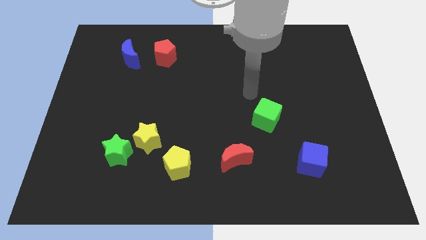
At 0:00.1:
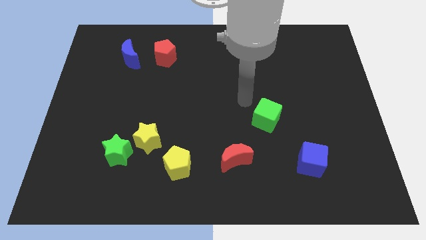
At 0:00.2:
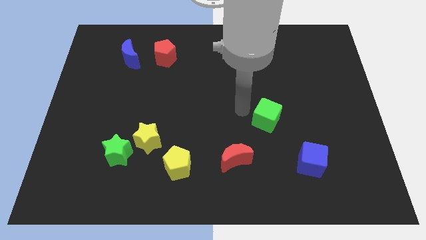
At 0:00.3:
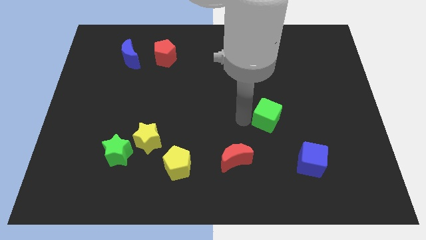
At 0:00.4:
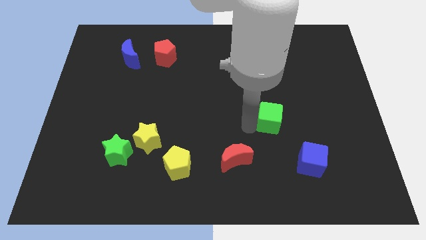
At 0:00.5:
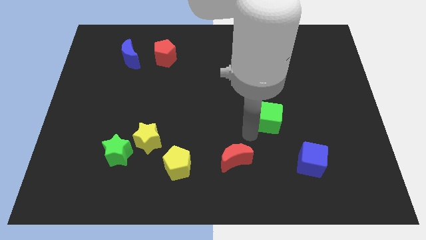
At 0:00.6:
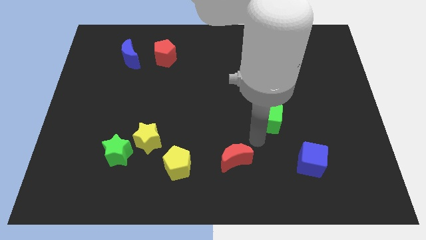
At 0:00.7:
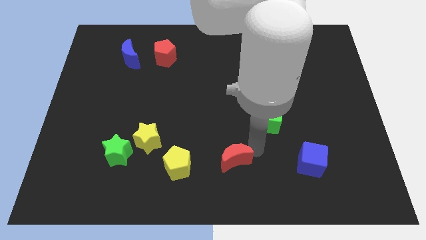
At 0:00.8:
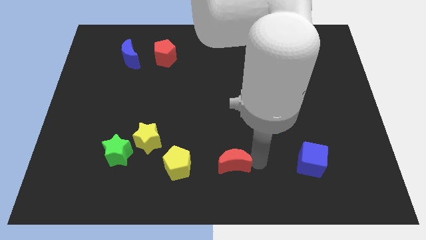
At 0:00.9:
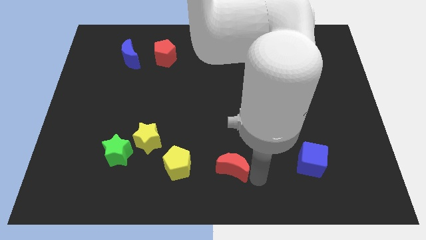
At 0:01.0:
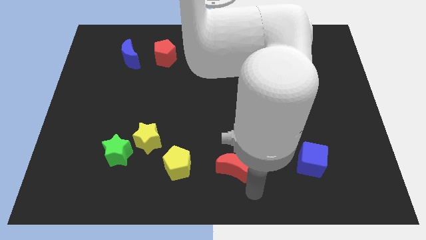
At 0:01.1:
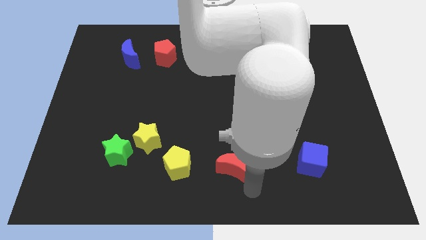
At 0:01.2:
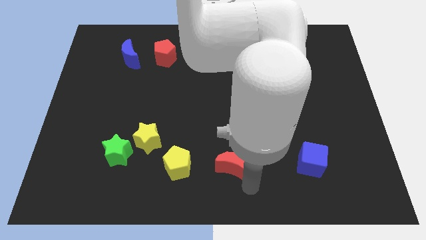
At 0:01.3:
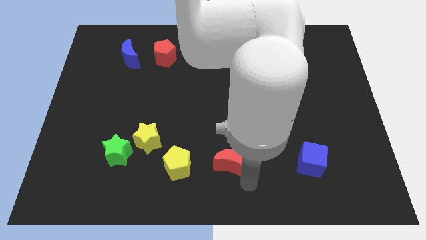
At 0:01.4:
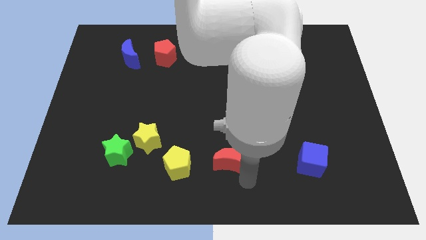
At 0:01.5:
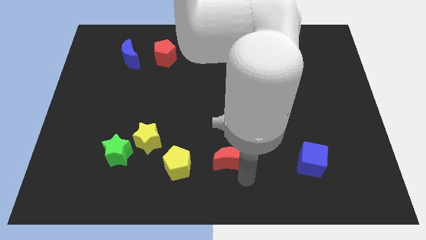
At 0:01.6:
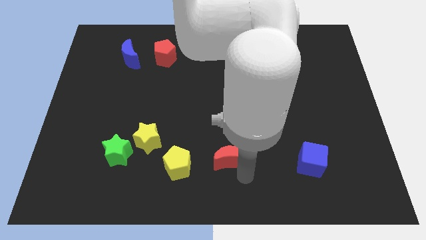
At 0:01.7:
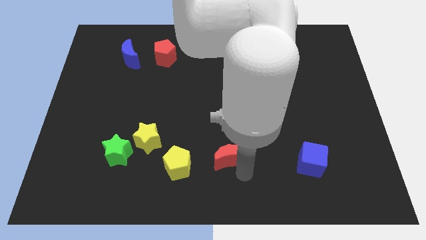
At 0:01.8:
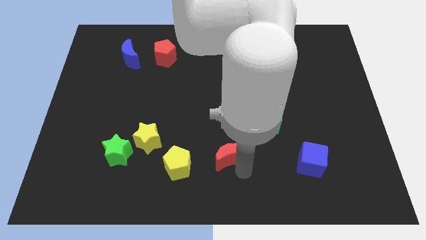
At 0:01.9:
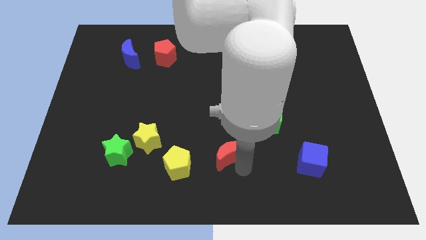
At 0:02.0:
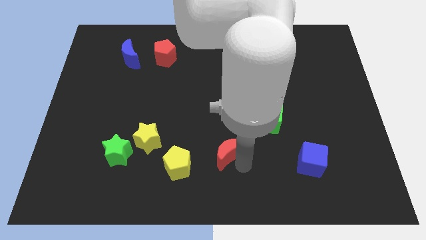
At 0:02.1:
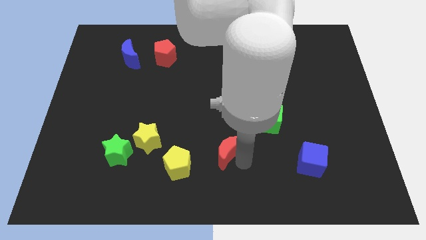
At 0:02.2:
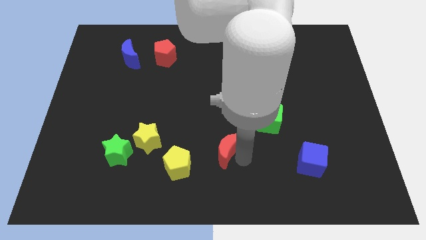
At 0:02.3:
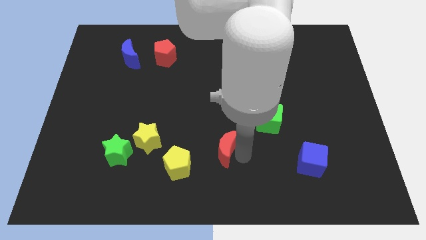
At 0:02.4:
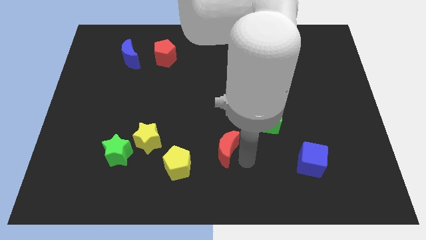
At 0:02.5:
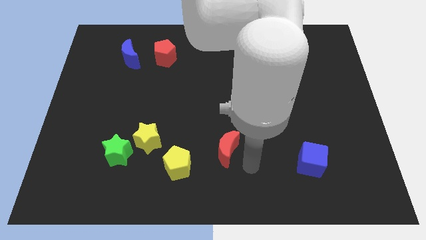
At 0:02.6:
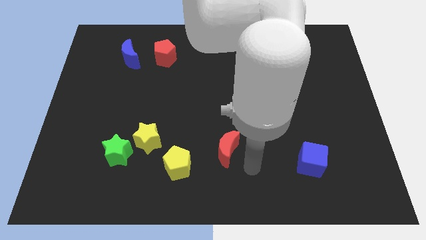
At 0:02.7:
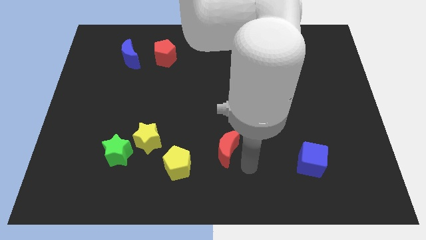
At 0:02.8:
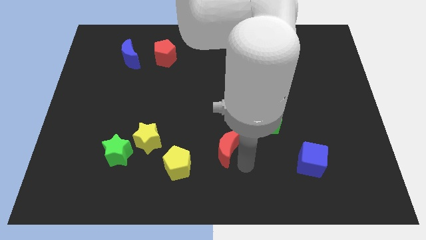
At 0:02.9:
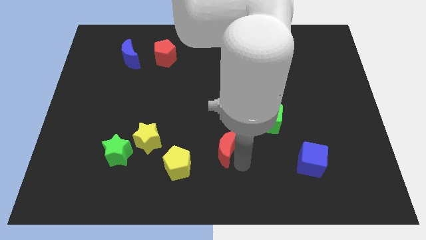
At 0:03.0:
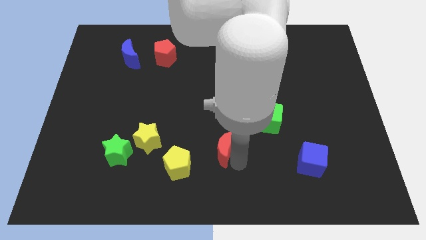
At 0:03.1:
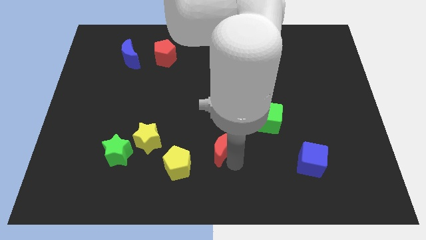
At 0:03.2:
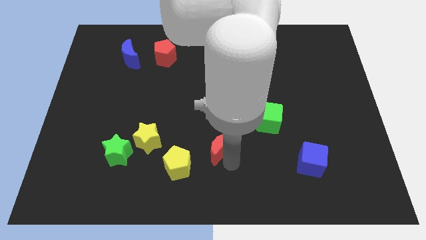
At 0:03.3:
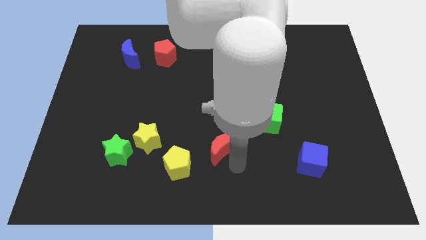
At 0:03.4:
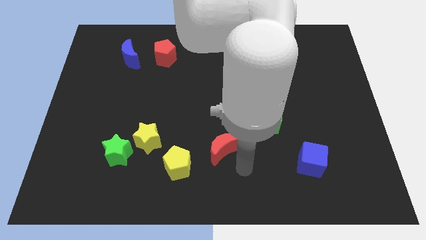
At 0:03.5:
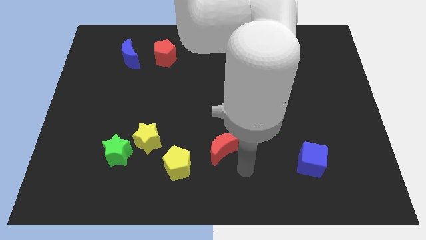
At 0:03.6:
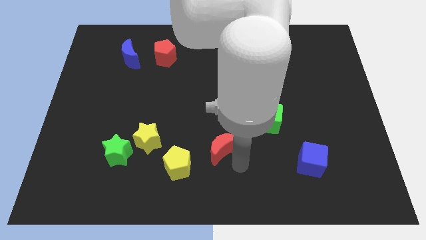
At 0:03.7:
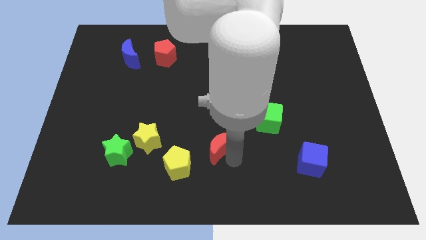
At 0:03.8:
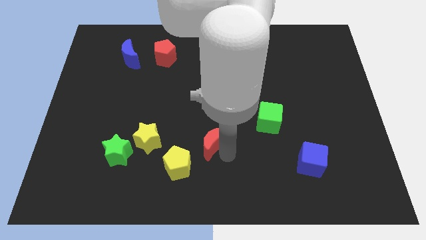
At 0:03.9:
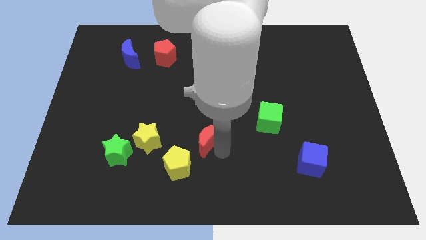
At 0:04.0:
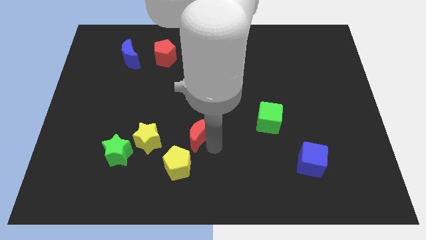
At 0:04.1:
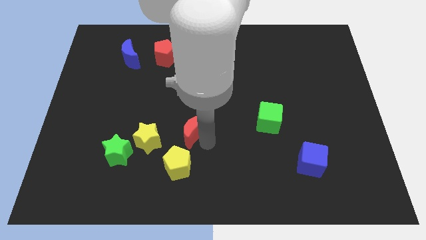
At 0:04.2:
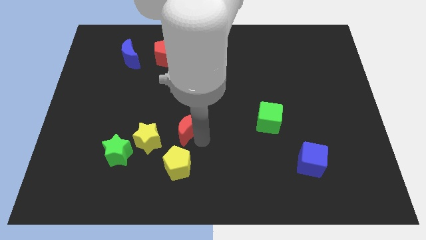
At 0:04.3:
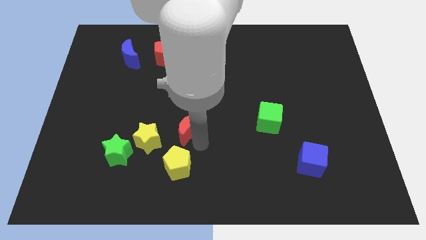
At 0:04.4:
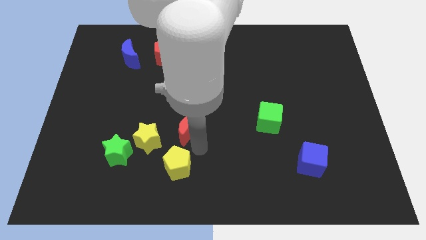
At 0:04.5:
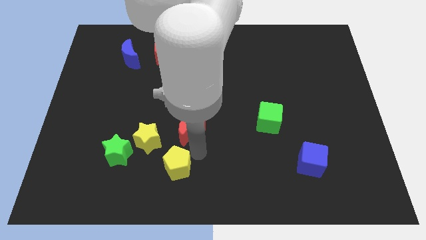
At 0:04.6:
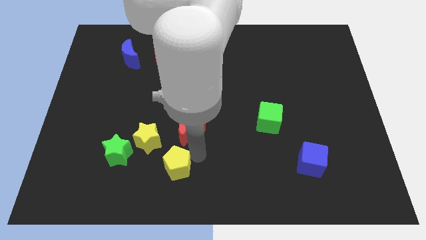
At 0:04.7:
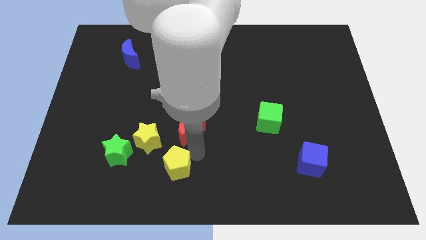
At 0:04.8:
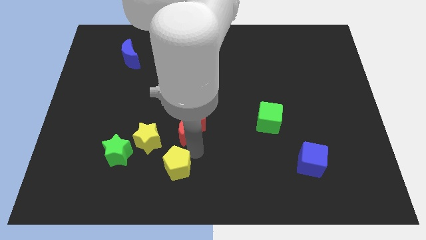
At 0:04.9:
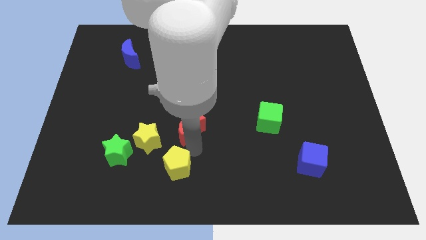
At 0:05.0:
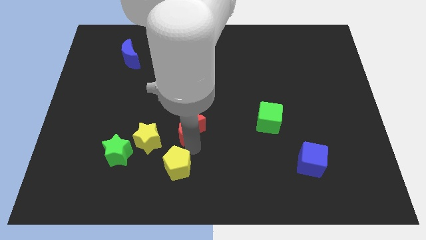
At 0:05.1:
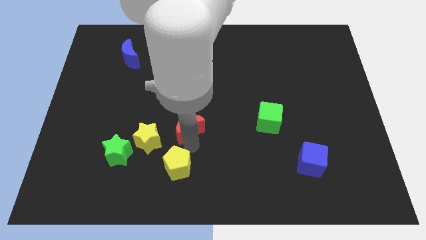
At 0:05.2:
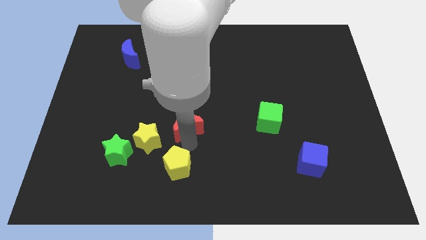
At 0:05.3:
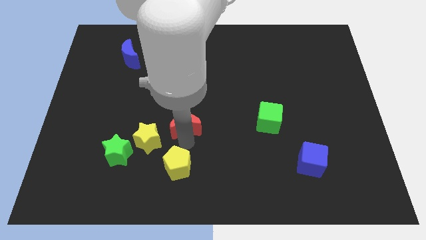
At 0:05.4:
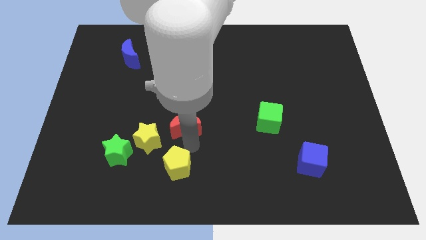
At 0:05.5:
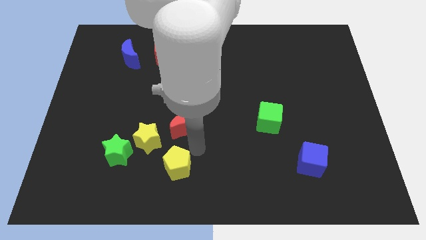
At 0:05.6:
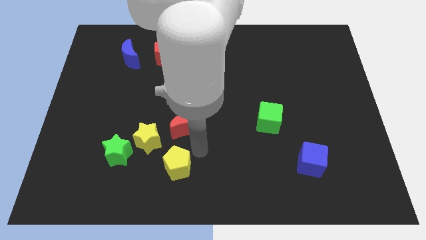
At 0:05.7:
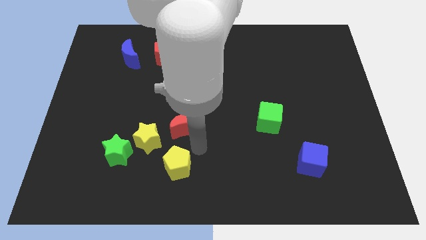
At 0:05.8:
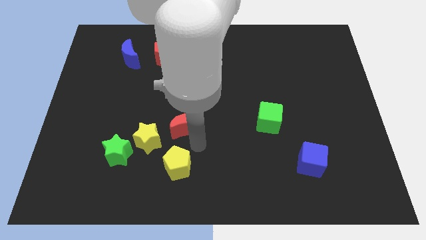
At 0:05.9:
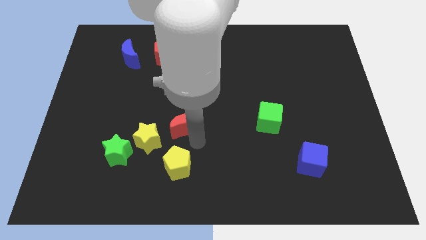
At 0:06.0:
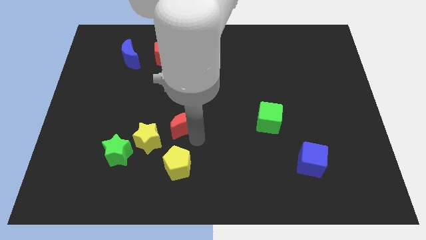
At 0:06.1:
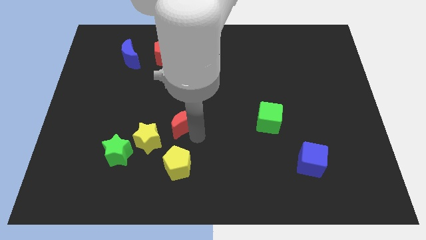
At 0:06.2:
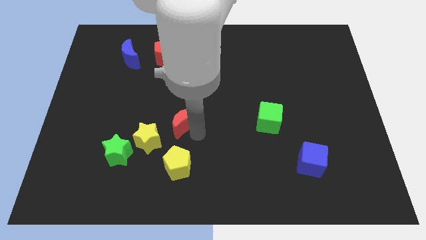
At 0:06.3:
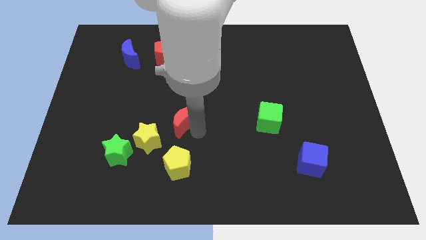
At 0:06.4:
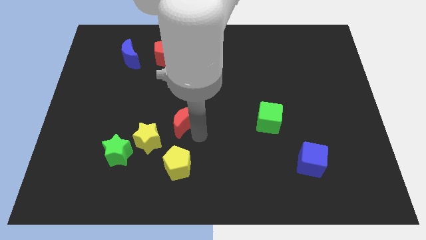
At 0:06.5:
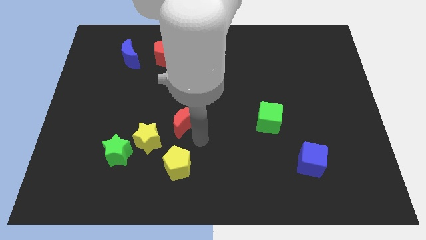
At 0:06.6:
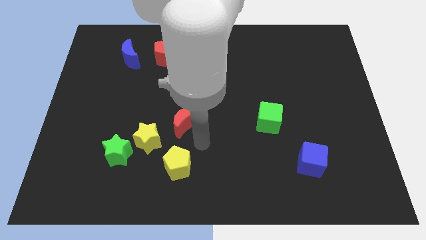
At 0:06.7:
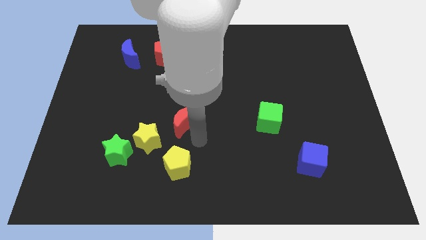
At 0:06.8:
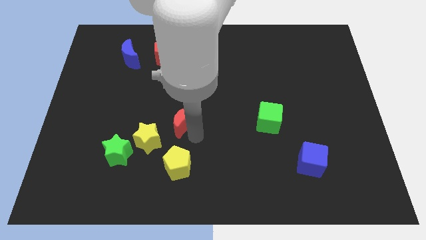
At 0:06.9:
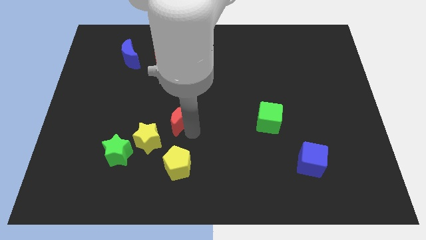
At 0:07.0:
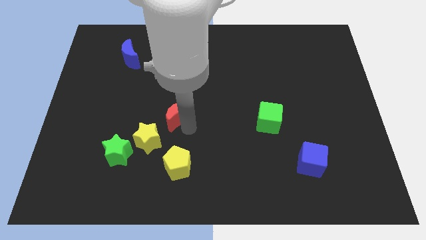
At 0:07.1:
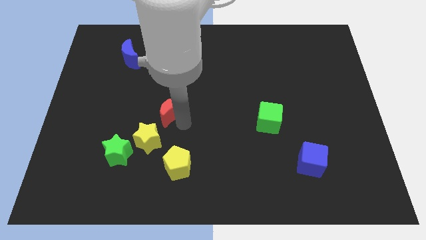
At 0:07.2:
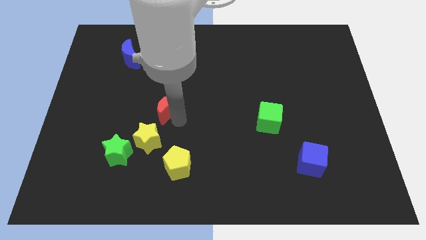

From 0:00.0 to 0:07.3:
slide the red moon upwards and to the left

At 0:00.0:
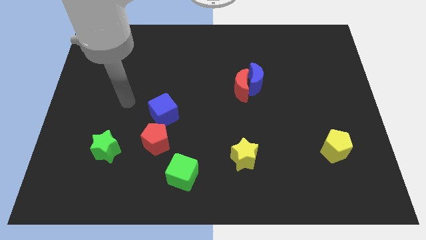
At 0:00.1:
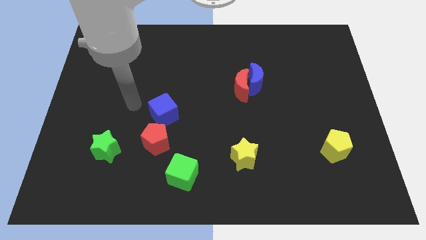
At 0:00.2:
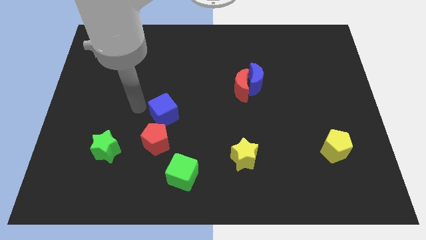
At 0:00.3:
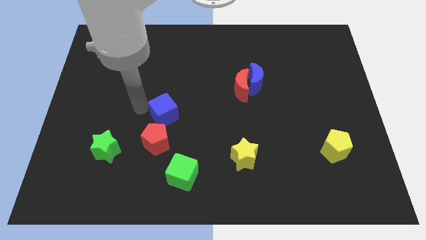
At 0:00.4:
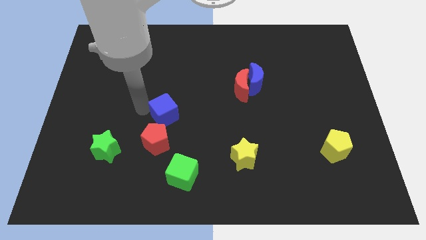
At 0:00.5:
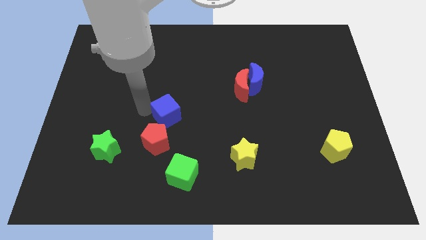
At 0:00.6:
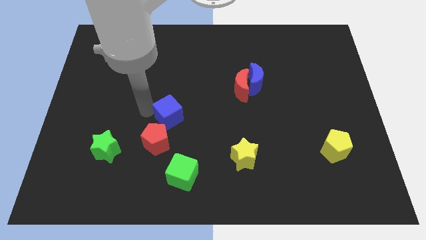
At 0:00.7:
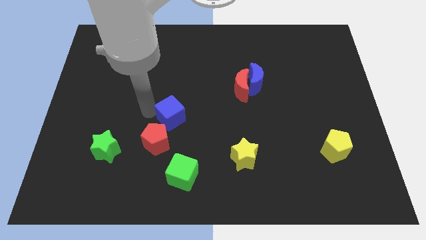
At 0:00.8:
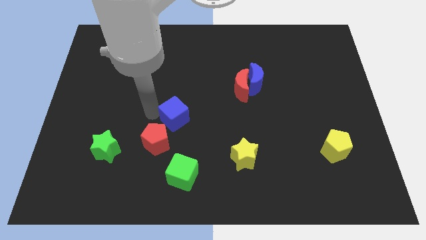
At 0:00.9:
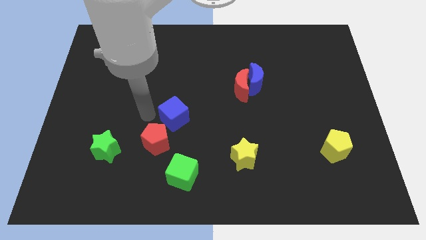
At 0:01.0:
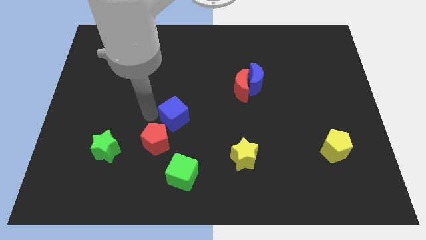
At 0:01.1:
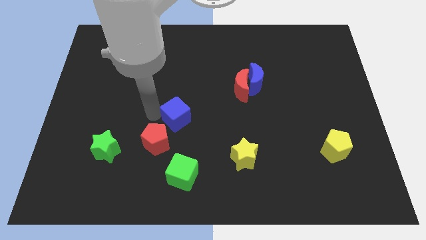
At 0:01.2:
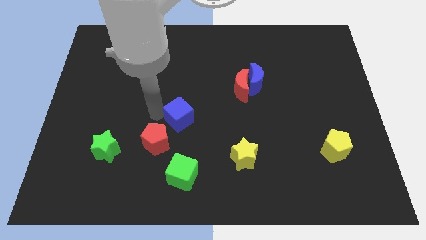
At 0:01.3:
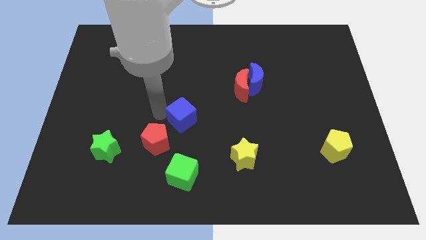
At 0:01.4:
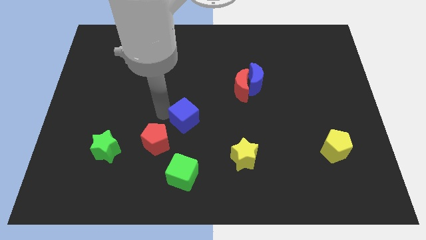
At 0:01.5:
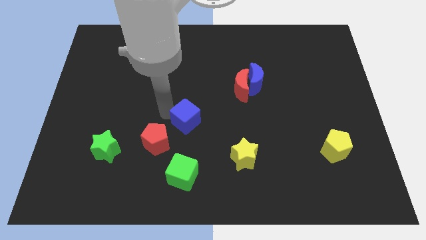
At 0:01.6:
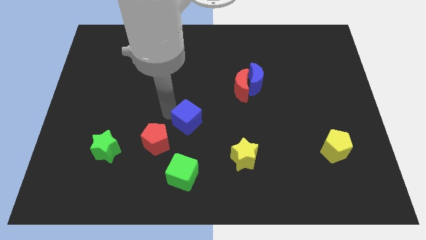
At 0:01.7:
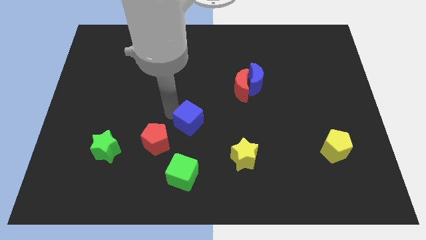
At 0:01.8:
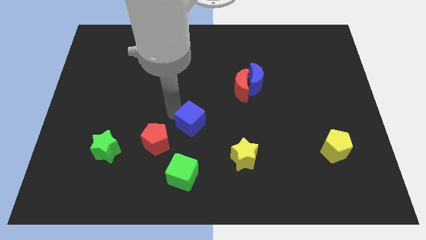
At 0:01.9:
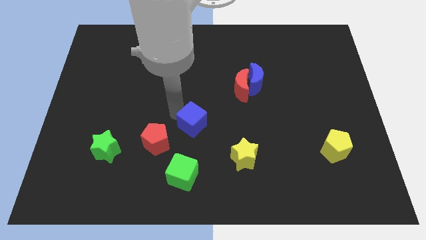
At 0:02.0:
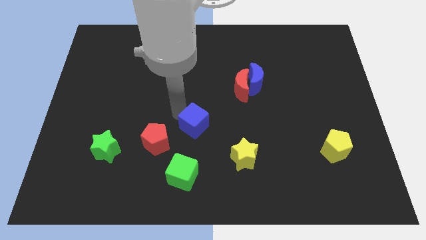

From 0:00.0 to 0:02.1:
slightly push the blue cube to the right
